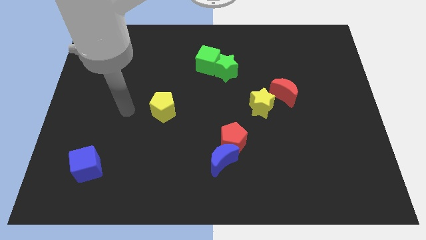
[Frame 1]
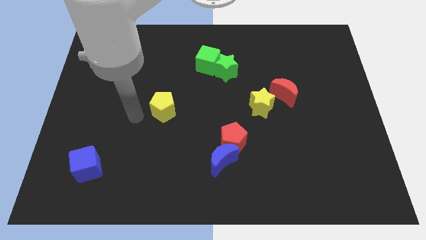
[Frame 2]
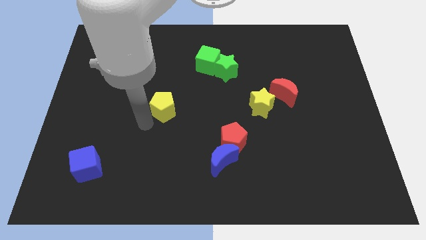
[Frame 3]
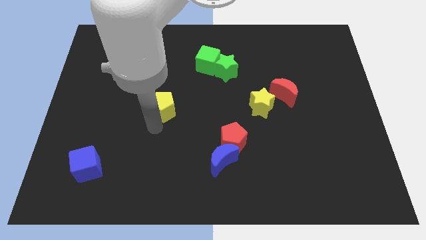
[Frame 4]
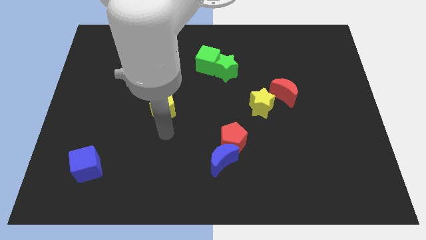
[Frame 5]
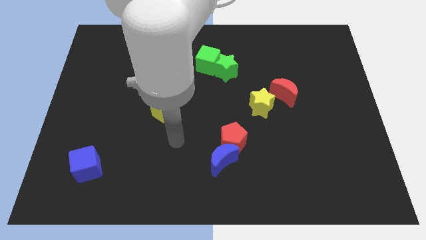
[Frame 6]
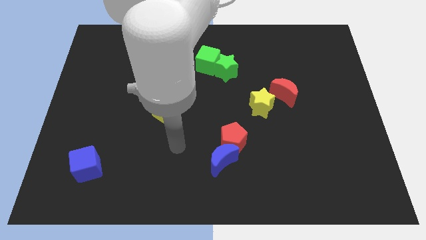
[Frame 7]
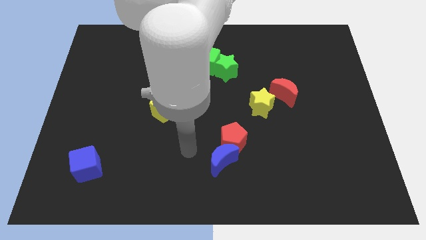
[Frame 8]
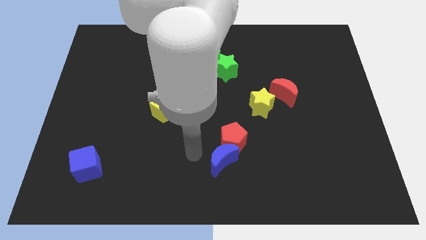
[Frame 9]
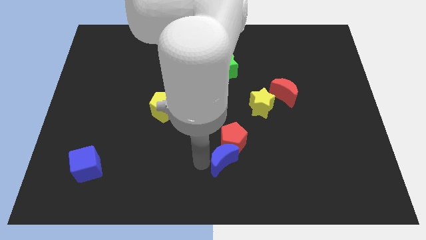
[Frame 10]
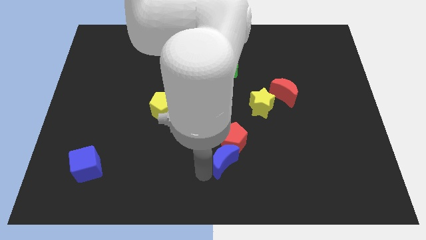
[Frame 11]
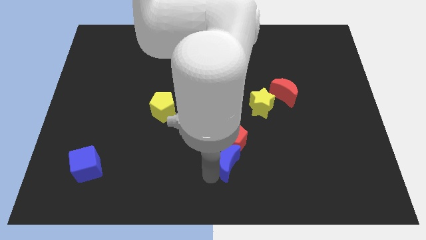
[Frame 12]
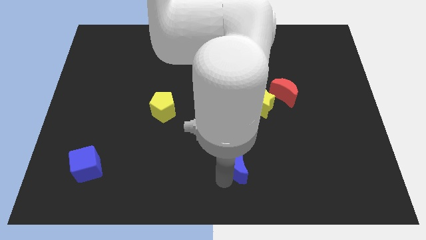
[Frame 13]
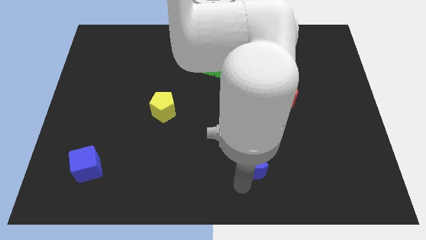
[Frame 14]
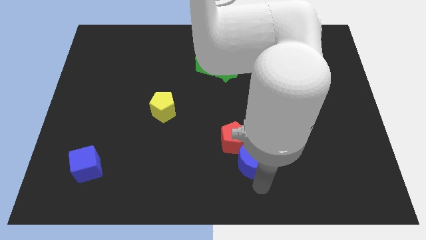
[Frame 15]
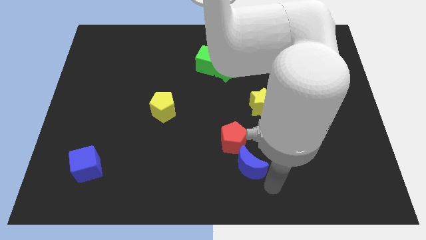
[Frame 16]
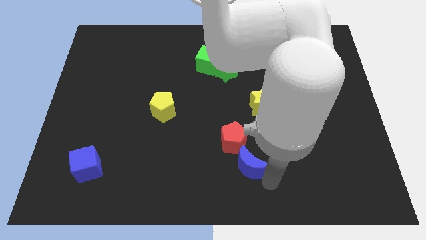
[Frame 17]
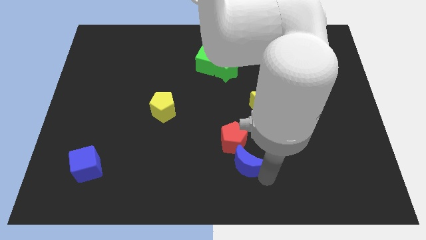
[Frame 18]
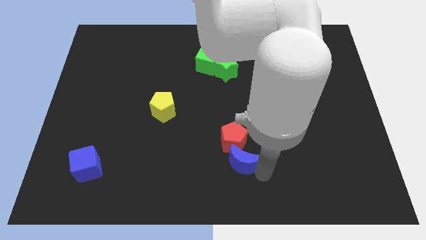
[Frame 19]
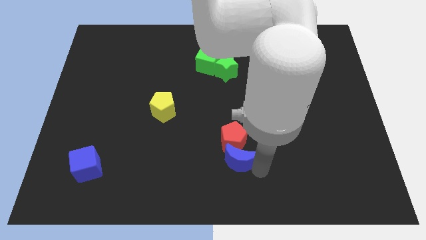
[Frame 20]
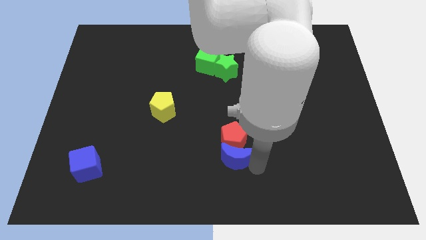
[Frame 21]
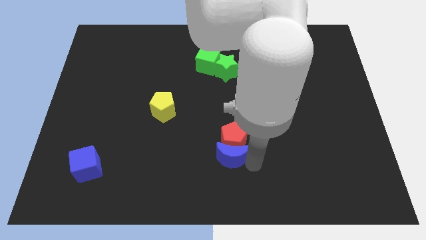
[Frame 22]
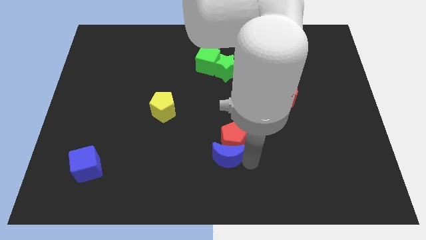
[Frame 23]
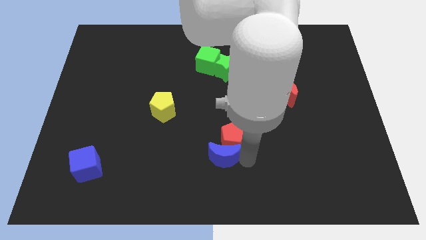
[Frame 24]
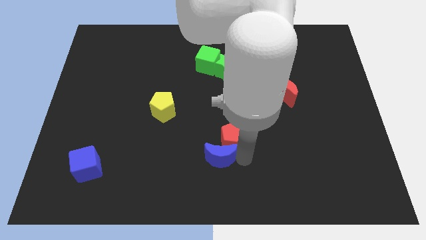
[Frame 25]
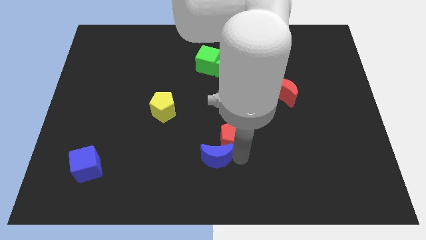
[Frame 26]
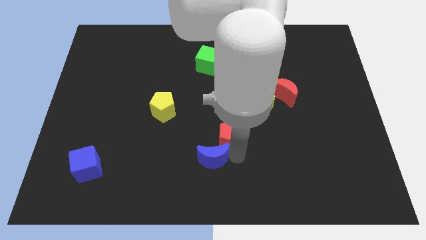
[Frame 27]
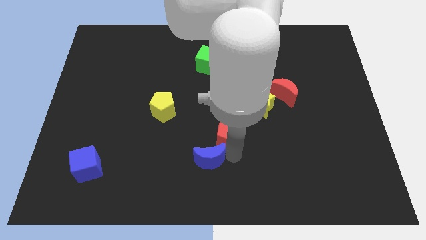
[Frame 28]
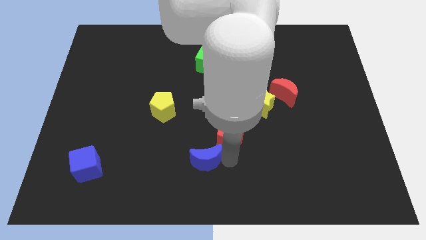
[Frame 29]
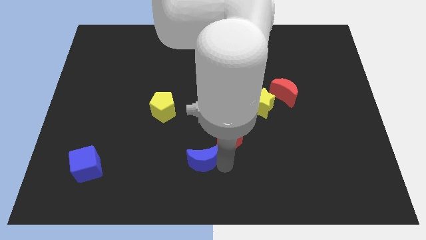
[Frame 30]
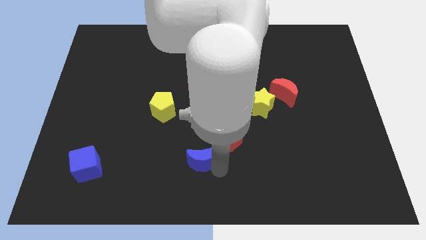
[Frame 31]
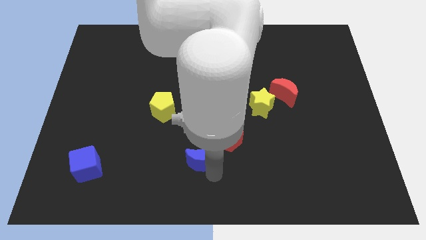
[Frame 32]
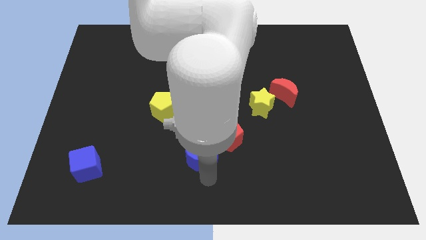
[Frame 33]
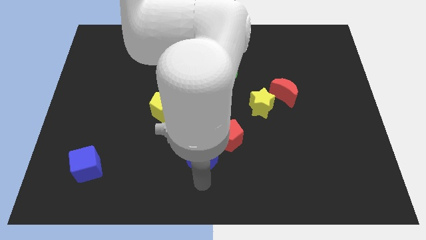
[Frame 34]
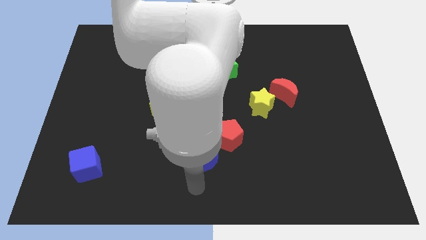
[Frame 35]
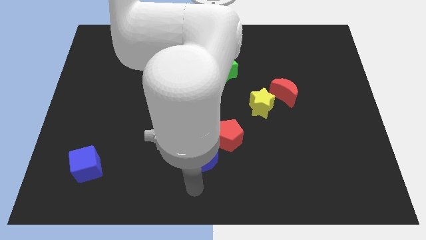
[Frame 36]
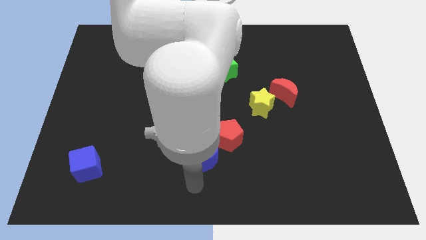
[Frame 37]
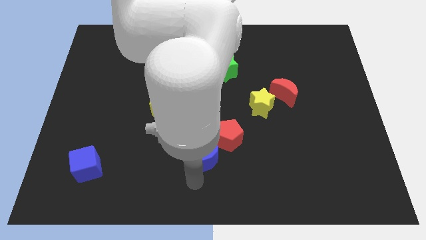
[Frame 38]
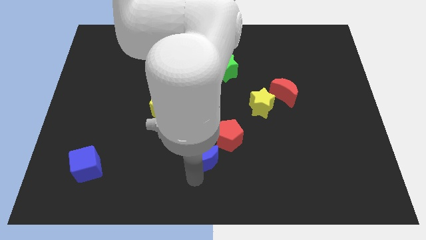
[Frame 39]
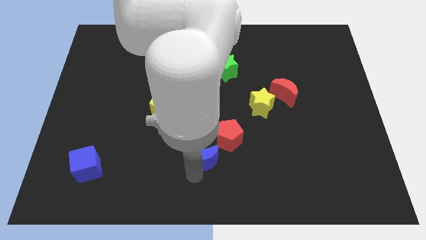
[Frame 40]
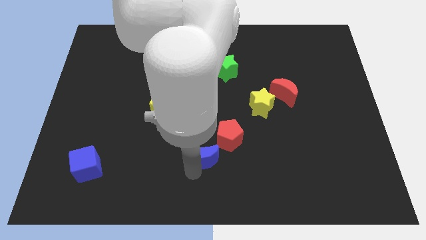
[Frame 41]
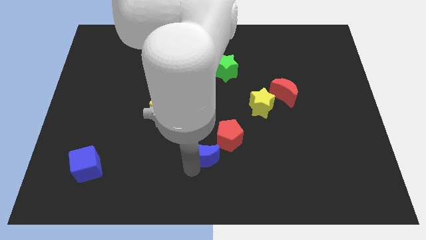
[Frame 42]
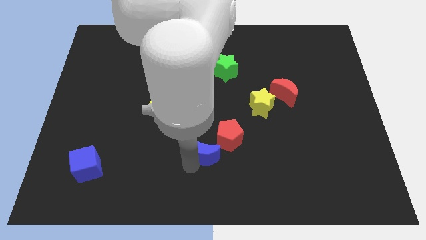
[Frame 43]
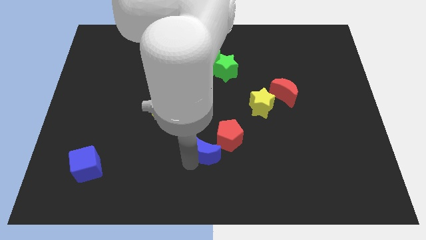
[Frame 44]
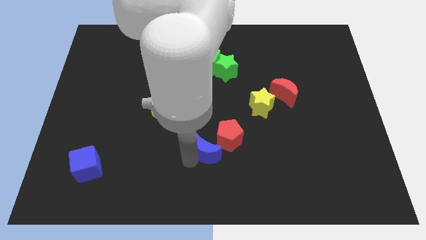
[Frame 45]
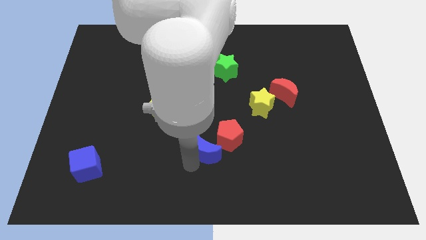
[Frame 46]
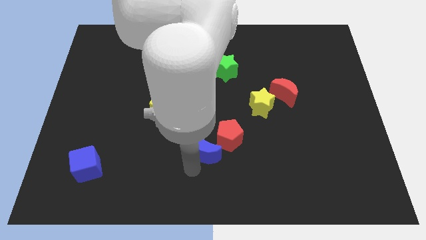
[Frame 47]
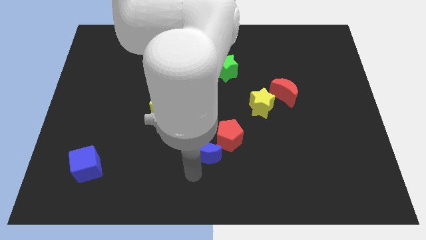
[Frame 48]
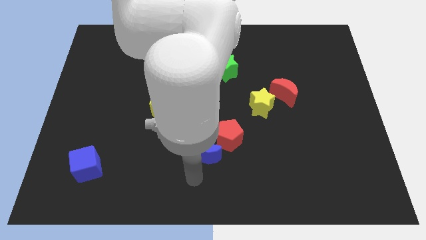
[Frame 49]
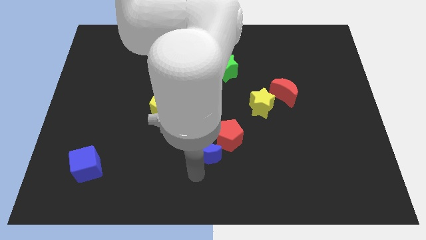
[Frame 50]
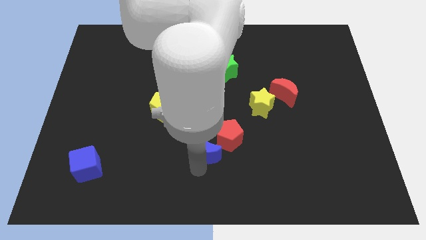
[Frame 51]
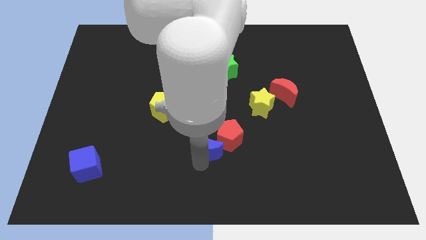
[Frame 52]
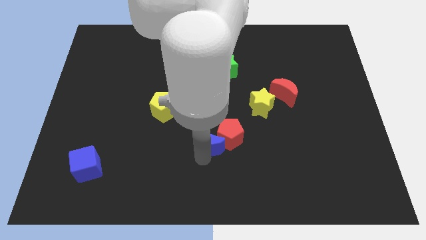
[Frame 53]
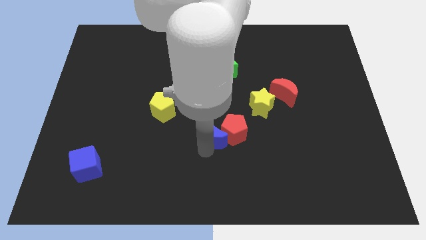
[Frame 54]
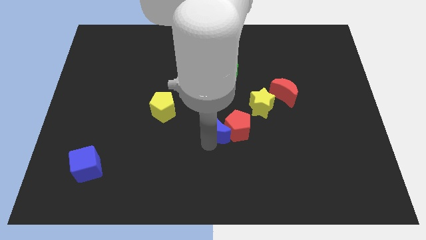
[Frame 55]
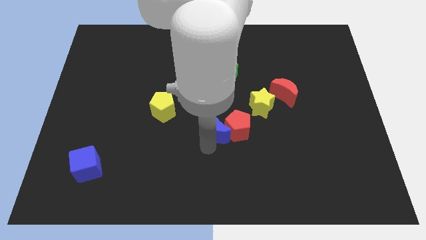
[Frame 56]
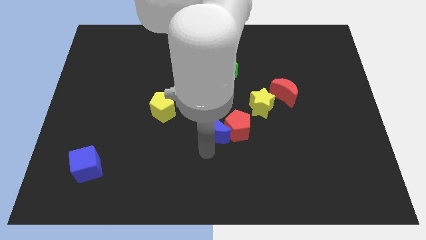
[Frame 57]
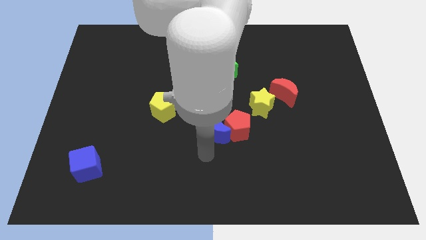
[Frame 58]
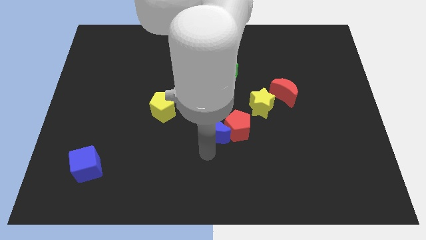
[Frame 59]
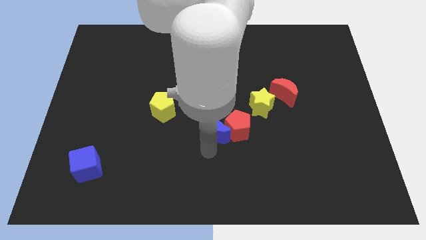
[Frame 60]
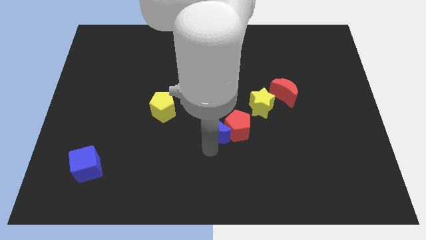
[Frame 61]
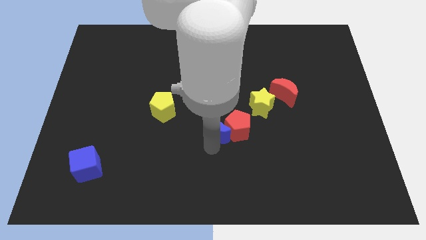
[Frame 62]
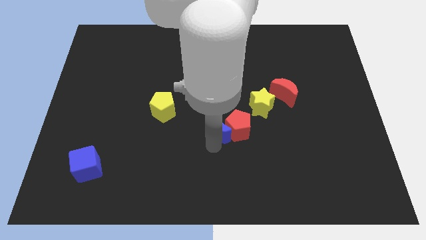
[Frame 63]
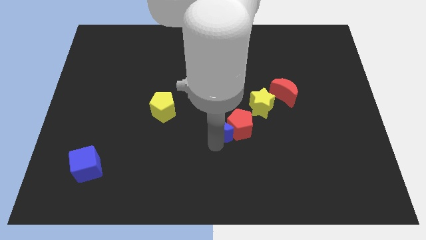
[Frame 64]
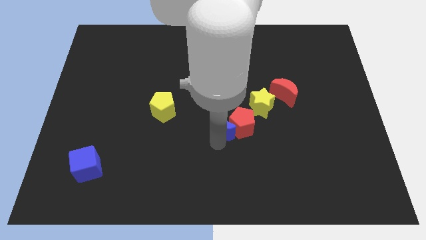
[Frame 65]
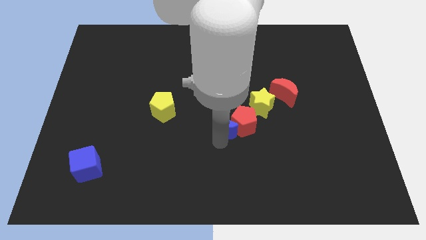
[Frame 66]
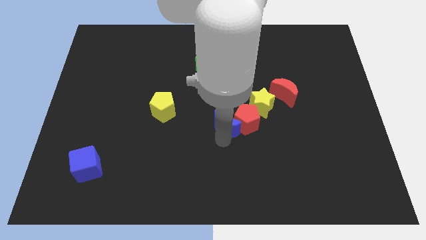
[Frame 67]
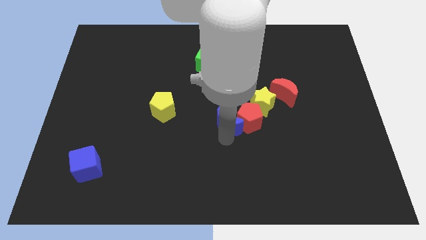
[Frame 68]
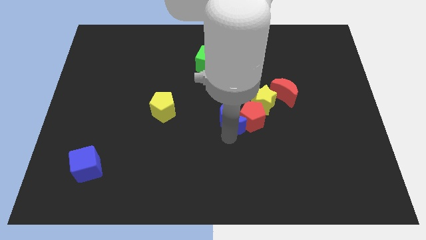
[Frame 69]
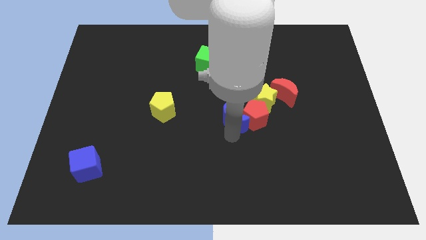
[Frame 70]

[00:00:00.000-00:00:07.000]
put the blue moon to the bottom of the green star

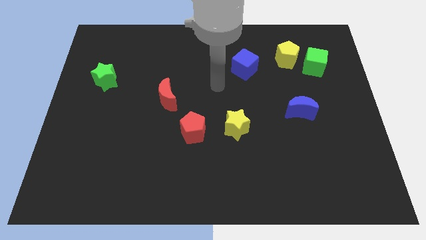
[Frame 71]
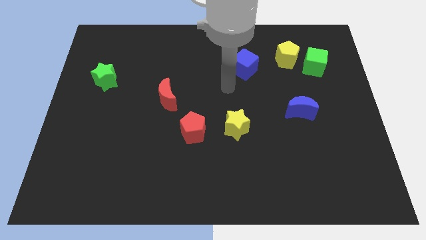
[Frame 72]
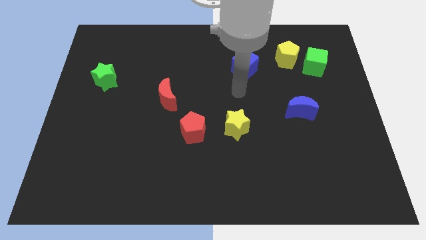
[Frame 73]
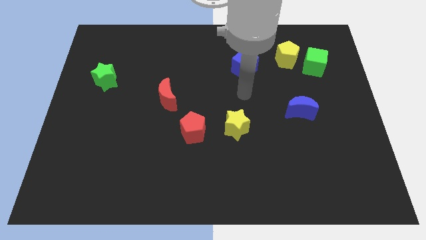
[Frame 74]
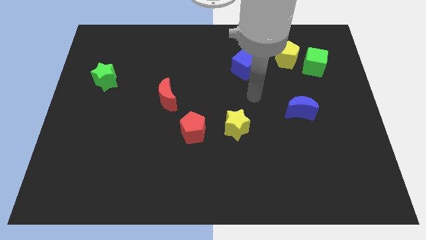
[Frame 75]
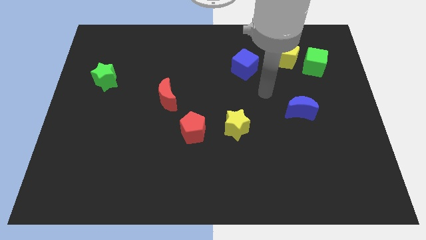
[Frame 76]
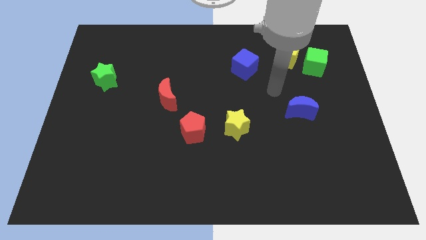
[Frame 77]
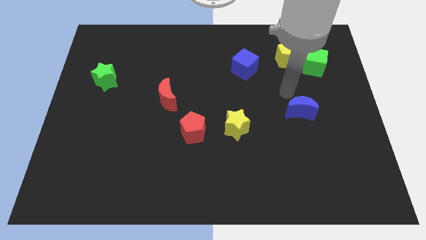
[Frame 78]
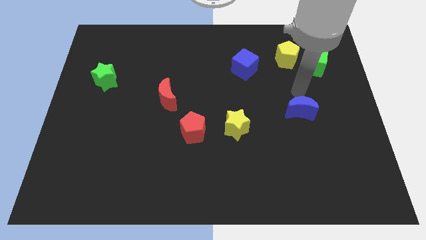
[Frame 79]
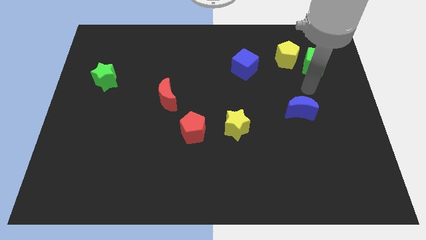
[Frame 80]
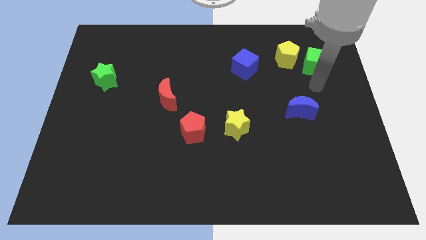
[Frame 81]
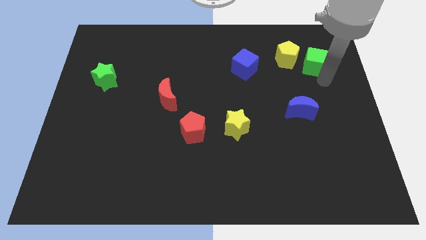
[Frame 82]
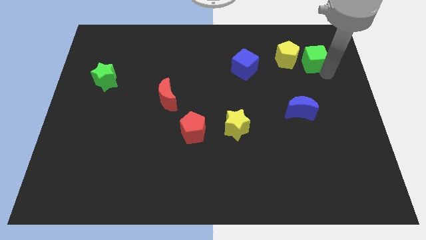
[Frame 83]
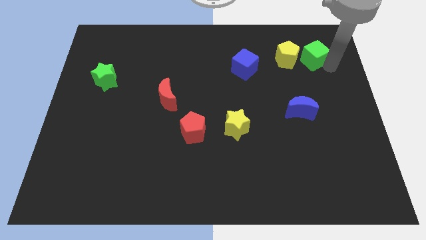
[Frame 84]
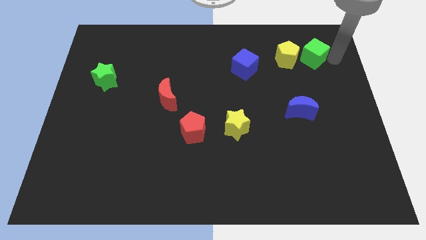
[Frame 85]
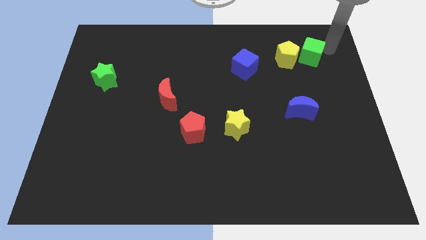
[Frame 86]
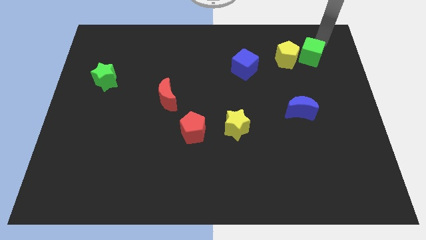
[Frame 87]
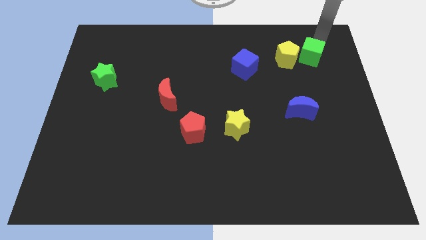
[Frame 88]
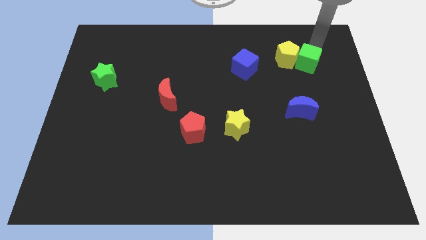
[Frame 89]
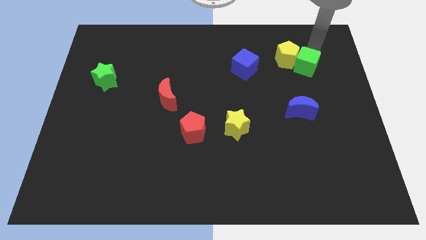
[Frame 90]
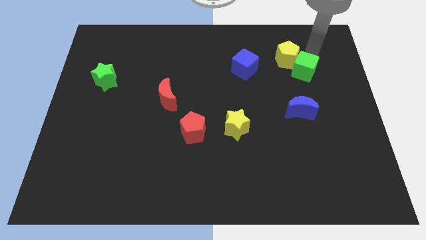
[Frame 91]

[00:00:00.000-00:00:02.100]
slide the green cube above the blue moon
